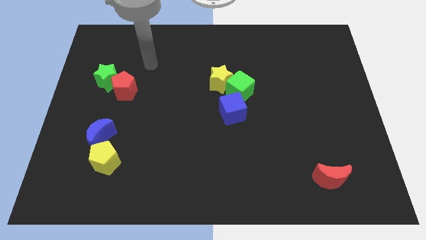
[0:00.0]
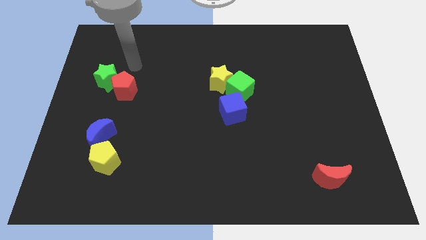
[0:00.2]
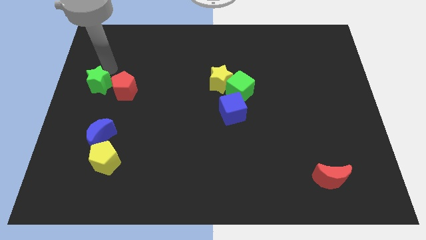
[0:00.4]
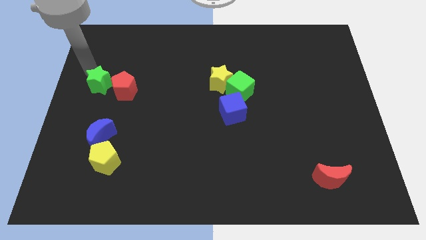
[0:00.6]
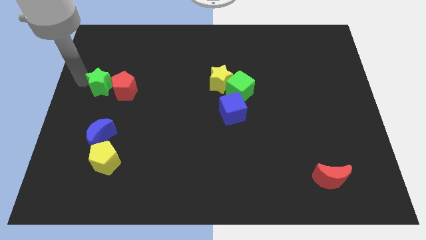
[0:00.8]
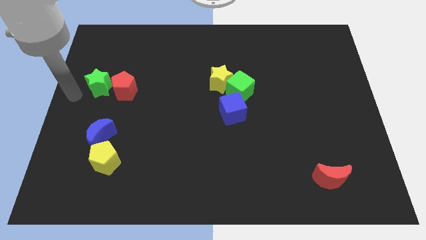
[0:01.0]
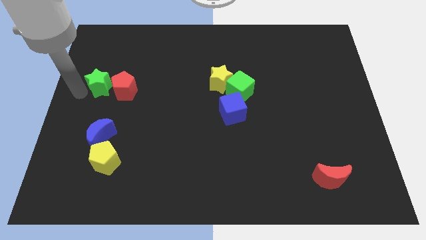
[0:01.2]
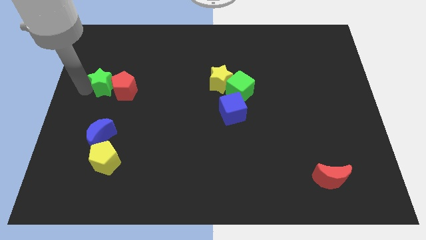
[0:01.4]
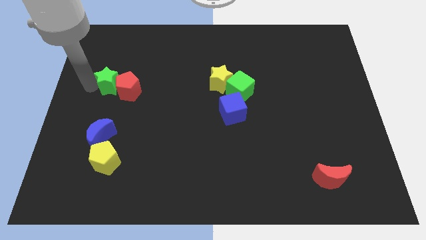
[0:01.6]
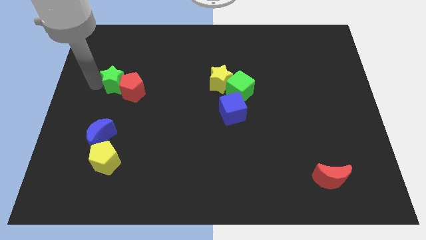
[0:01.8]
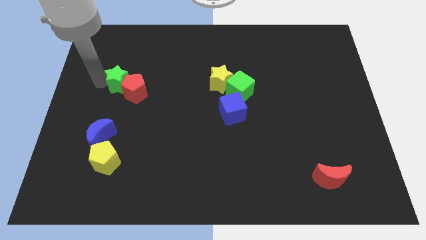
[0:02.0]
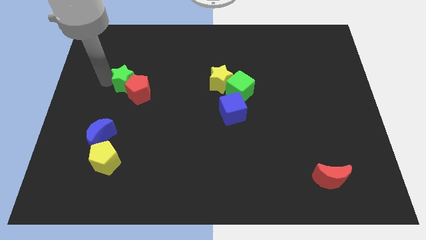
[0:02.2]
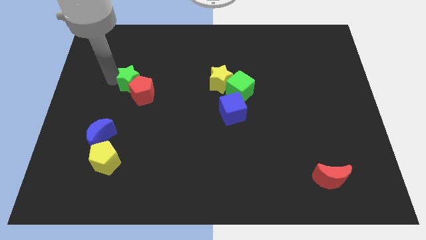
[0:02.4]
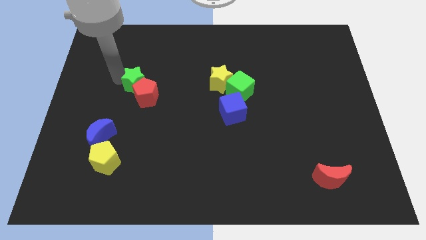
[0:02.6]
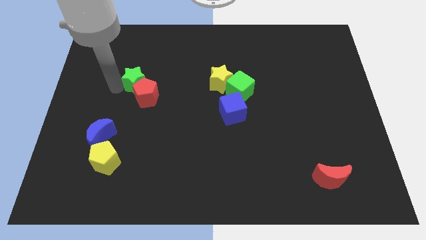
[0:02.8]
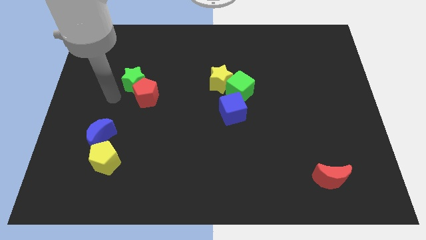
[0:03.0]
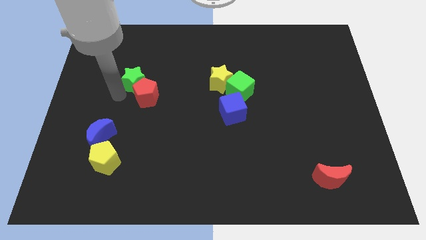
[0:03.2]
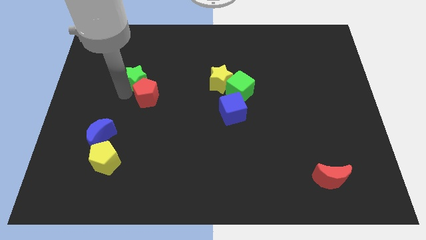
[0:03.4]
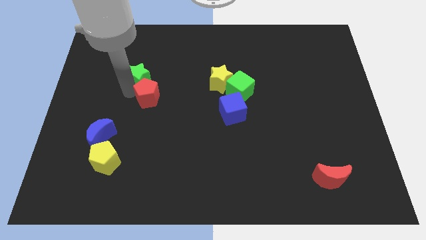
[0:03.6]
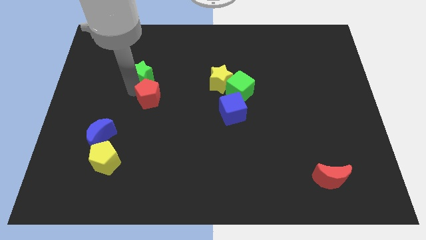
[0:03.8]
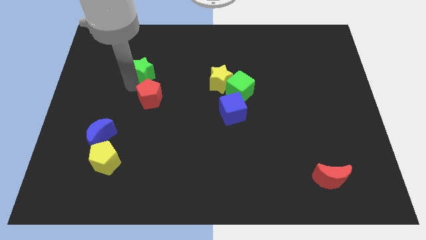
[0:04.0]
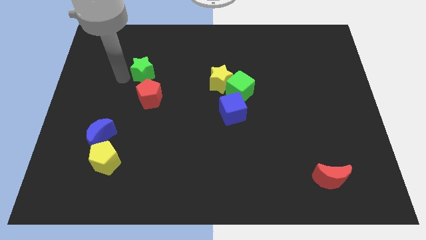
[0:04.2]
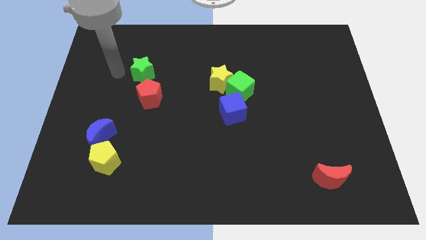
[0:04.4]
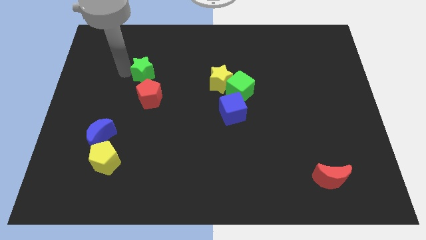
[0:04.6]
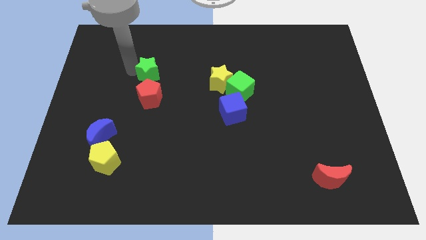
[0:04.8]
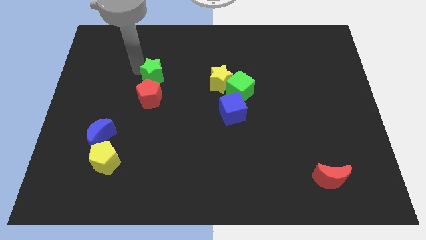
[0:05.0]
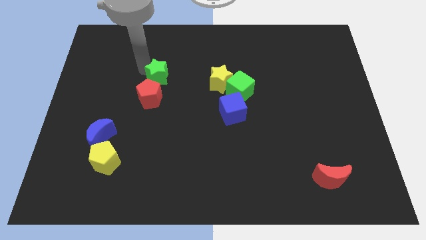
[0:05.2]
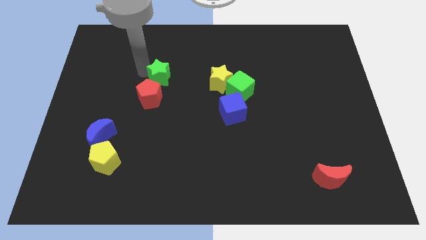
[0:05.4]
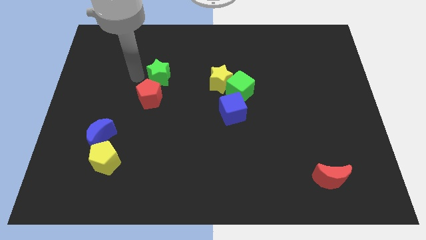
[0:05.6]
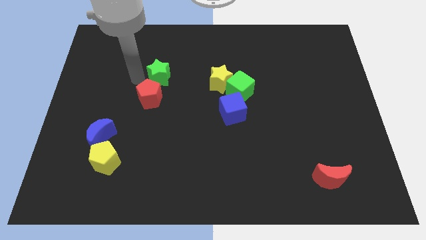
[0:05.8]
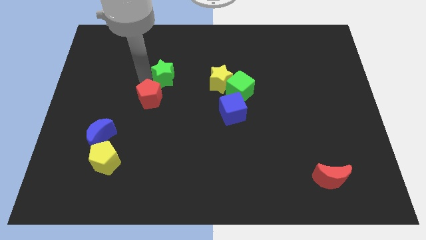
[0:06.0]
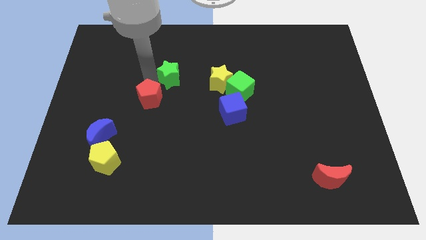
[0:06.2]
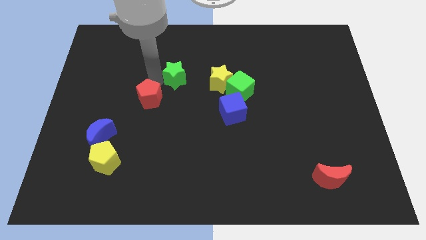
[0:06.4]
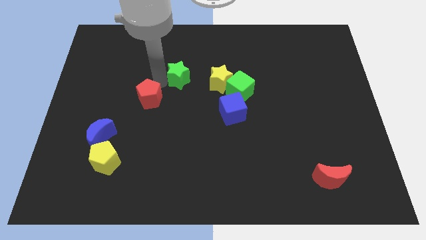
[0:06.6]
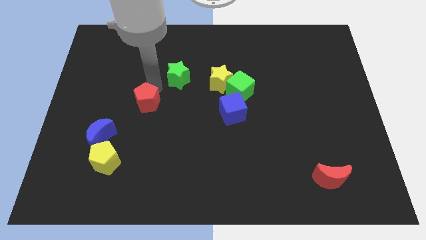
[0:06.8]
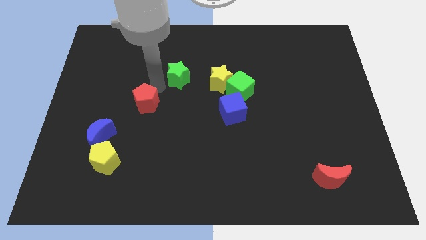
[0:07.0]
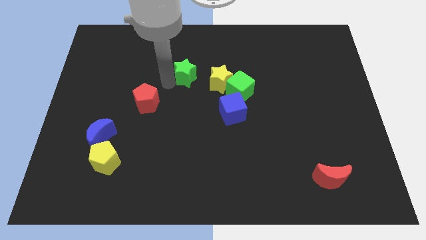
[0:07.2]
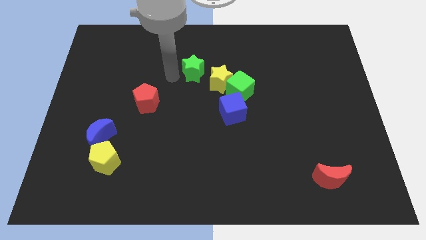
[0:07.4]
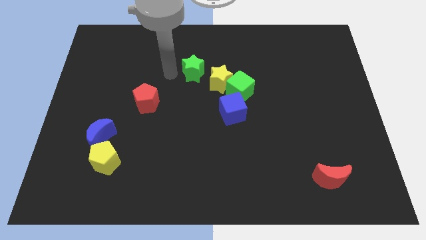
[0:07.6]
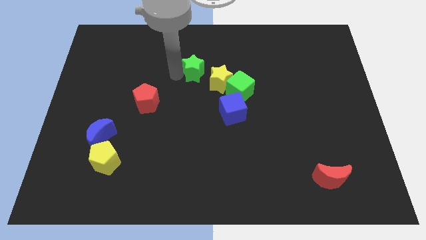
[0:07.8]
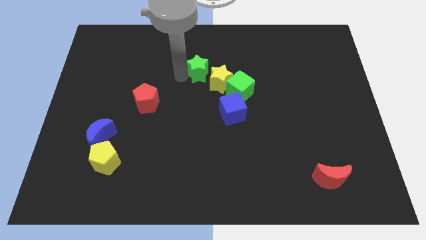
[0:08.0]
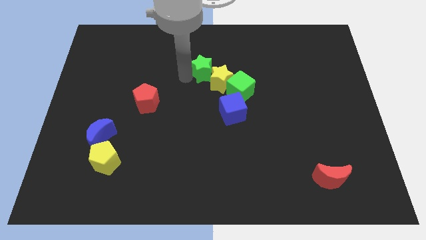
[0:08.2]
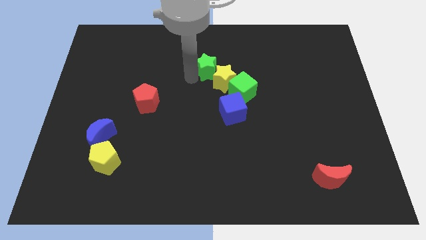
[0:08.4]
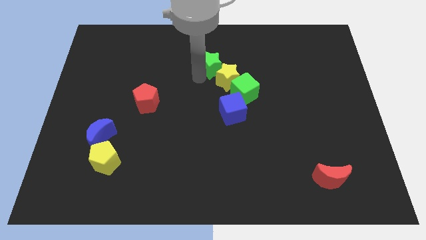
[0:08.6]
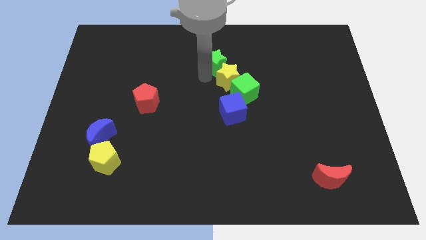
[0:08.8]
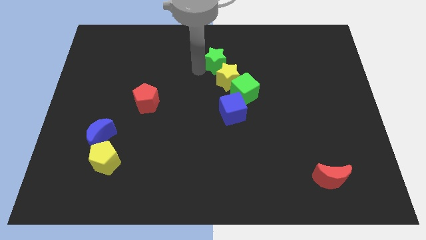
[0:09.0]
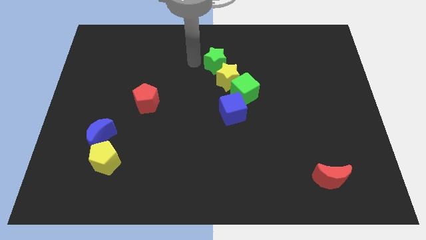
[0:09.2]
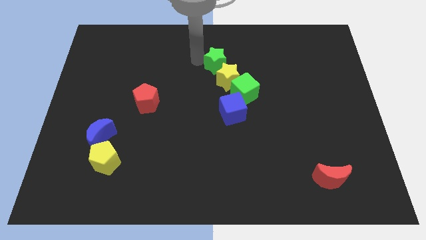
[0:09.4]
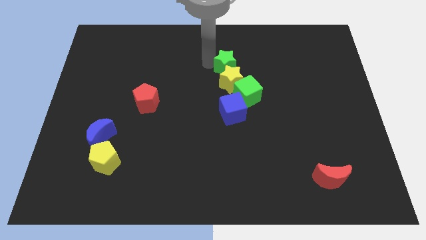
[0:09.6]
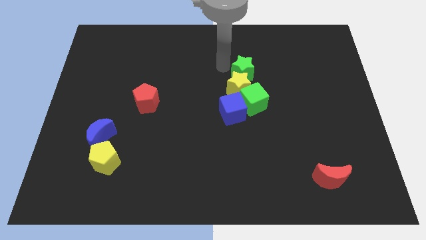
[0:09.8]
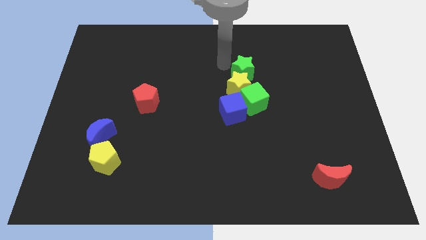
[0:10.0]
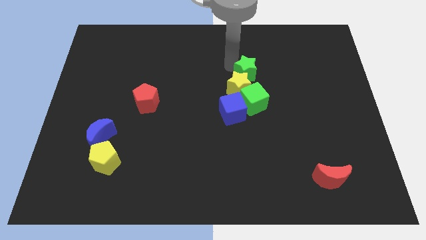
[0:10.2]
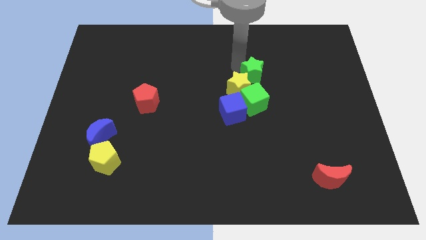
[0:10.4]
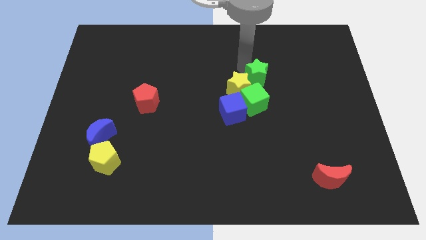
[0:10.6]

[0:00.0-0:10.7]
push the green star diagonally up and to the right of the green cube

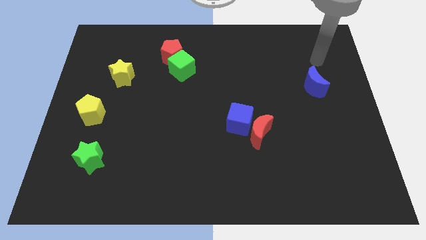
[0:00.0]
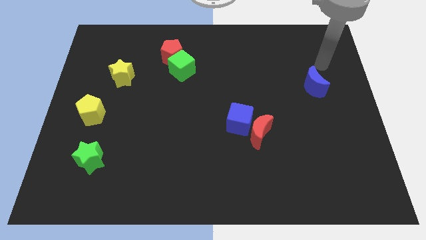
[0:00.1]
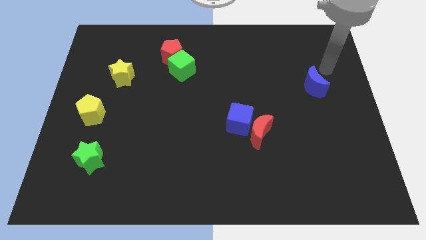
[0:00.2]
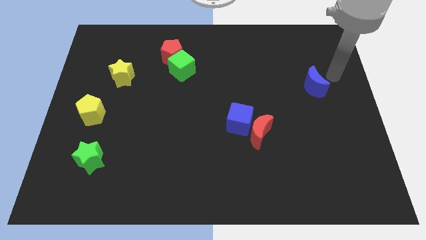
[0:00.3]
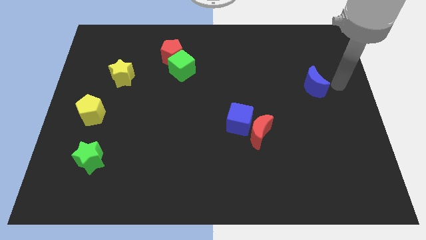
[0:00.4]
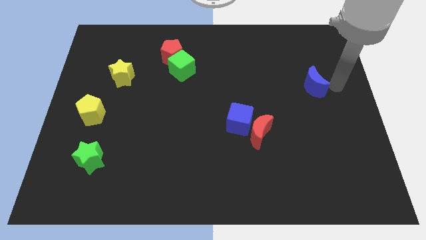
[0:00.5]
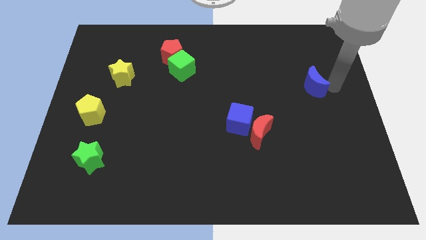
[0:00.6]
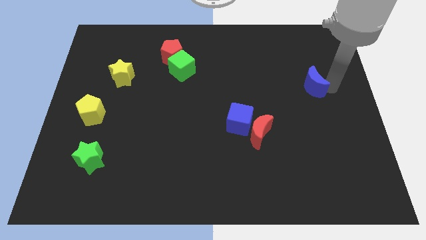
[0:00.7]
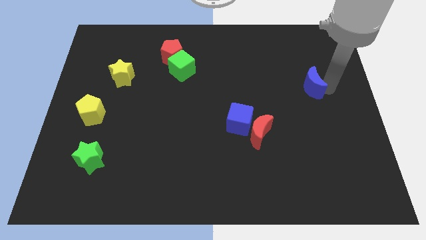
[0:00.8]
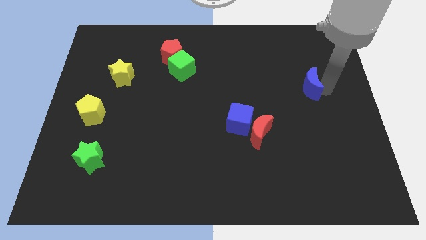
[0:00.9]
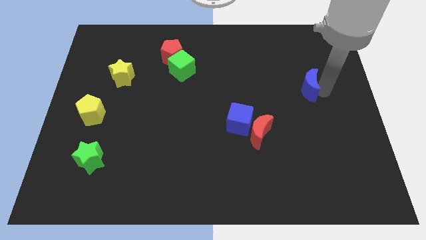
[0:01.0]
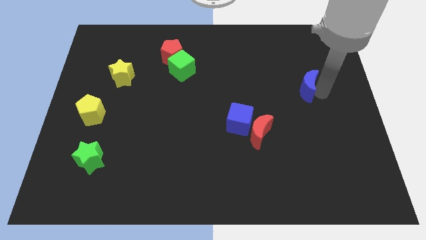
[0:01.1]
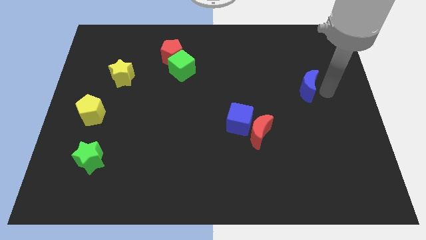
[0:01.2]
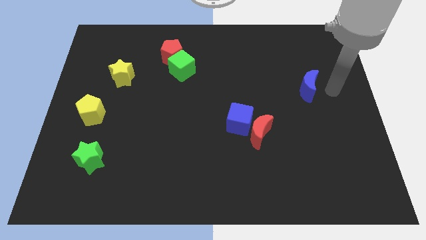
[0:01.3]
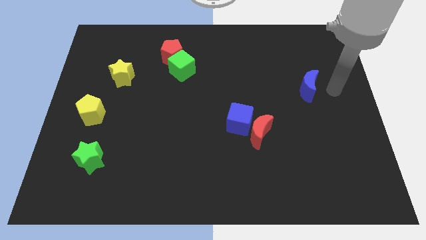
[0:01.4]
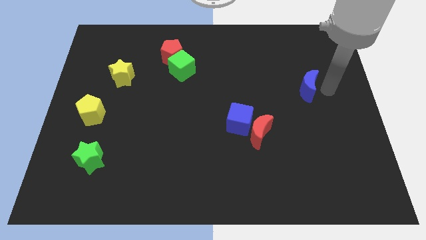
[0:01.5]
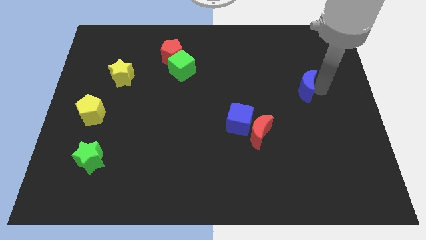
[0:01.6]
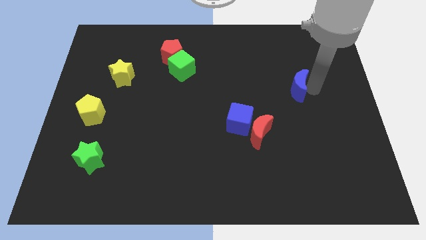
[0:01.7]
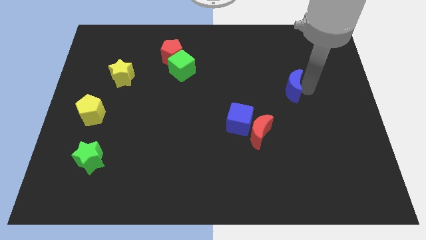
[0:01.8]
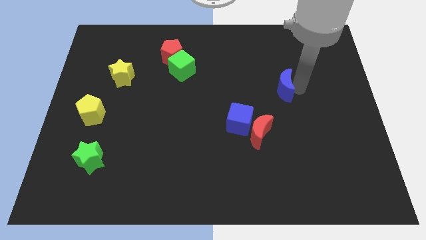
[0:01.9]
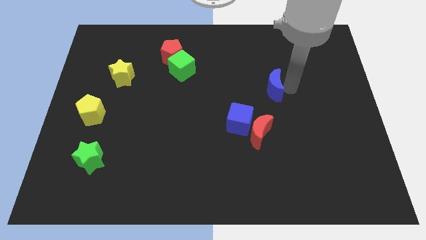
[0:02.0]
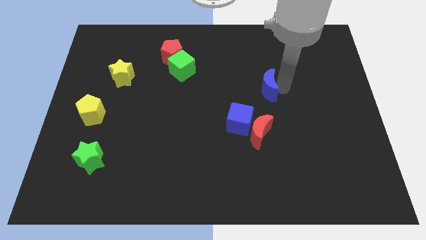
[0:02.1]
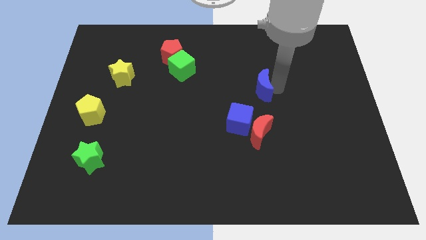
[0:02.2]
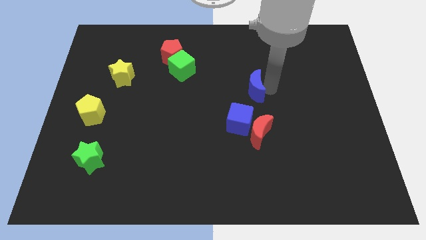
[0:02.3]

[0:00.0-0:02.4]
slide the blue moon to the top of the blue cube
